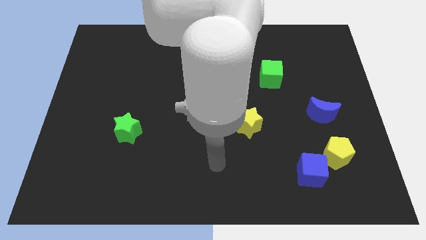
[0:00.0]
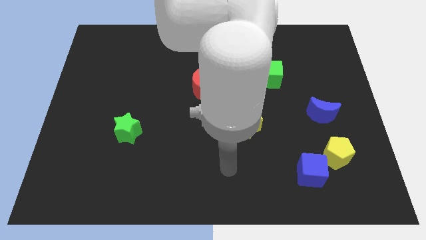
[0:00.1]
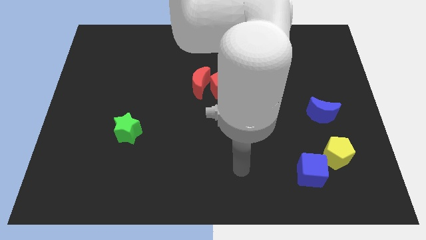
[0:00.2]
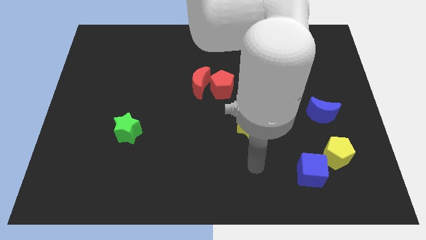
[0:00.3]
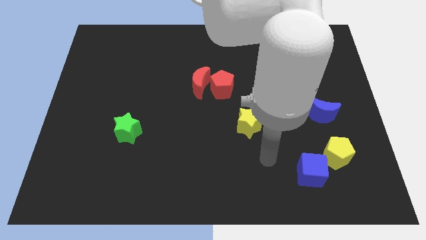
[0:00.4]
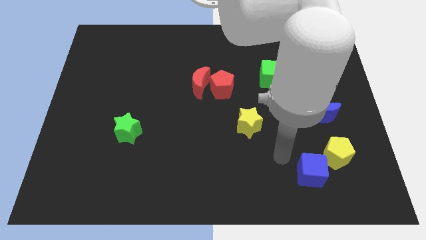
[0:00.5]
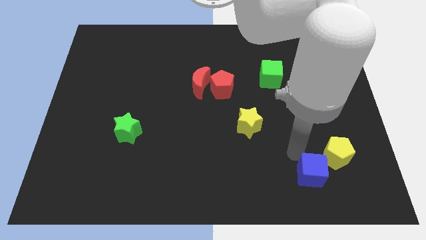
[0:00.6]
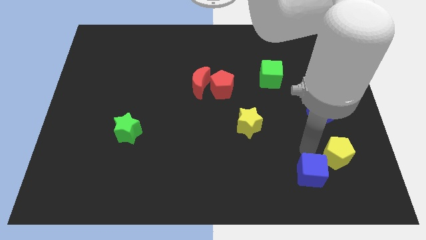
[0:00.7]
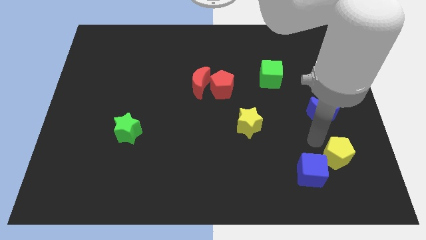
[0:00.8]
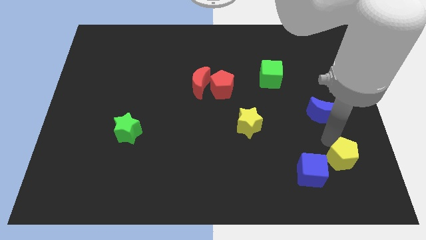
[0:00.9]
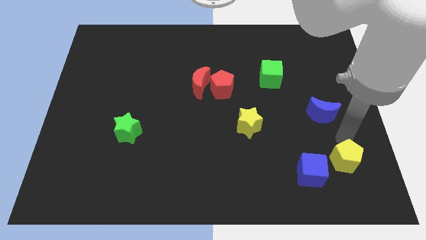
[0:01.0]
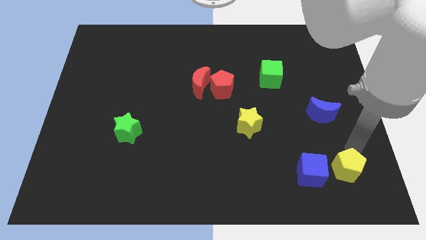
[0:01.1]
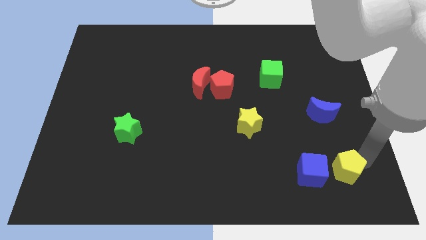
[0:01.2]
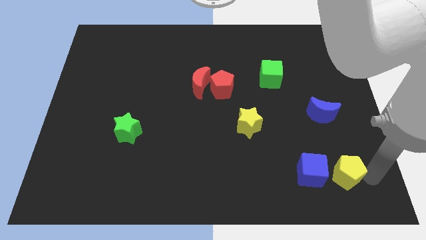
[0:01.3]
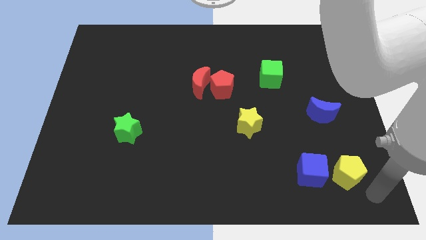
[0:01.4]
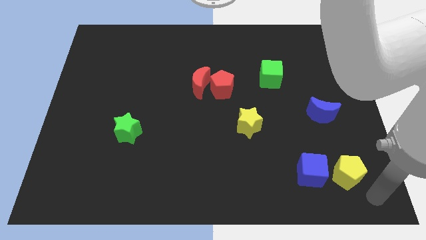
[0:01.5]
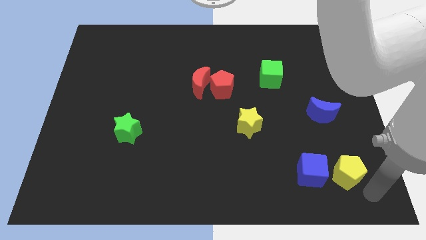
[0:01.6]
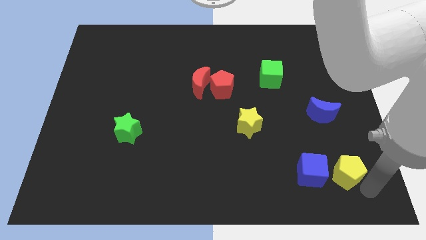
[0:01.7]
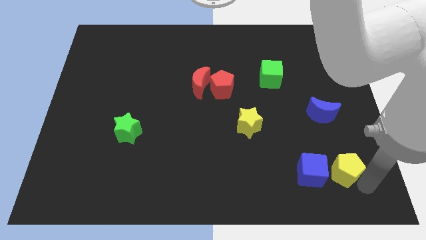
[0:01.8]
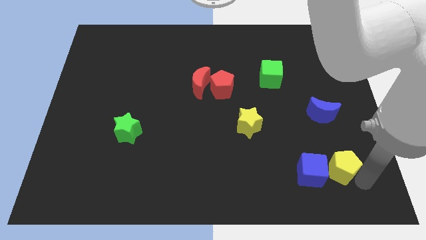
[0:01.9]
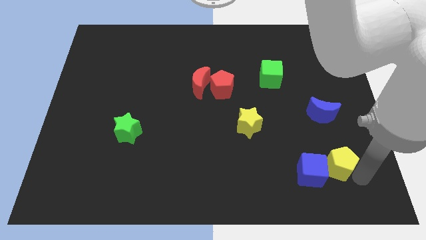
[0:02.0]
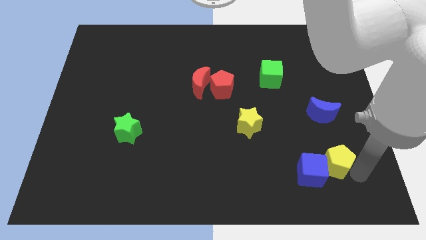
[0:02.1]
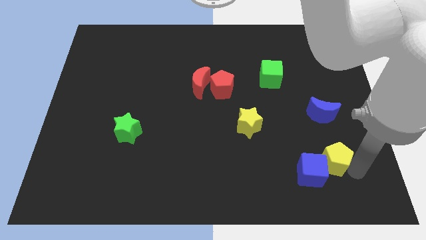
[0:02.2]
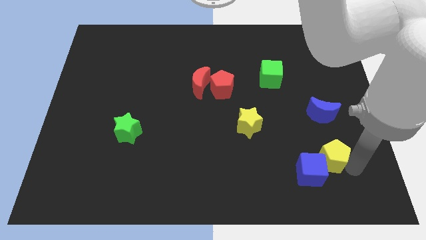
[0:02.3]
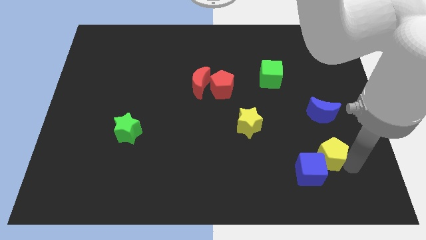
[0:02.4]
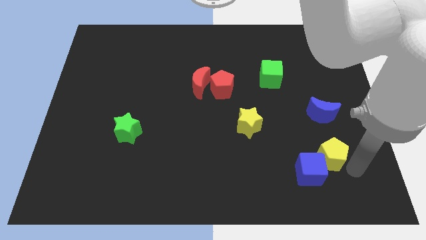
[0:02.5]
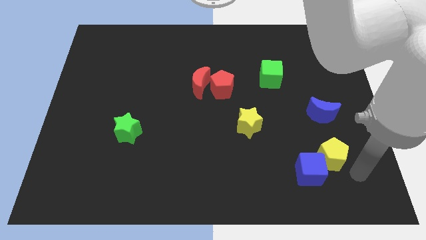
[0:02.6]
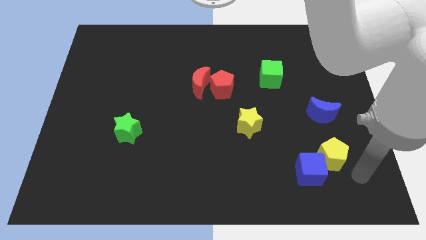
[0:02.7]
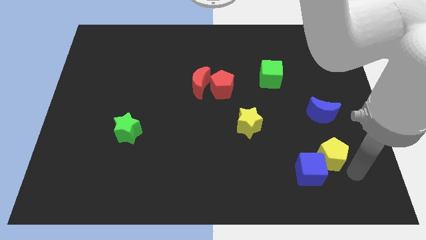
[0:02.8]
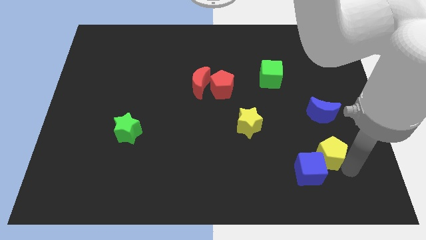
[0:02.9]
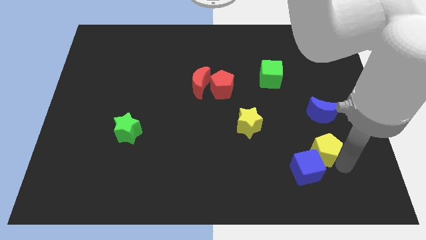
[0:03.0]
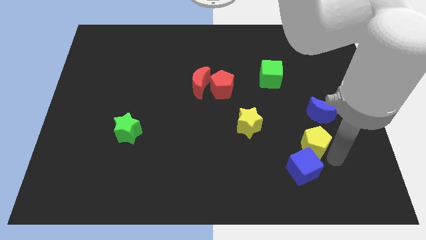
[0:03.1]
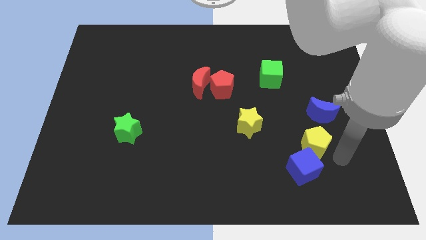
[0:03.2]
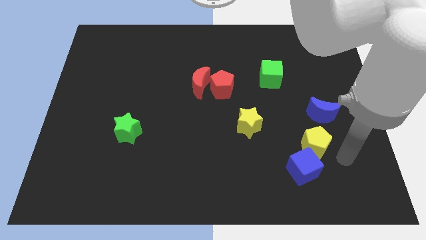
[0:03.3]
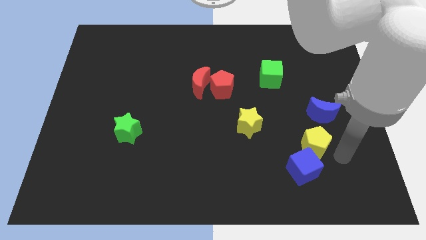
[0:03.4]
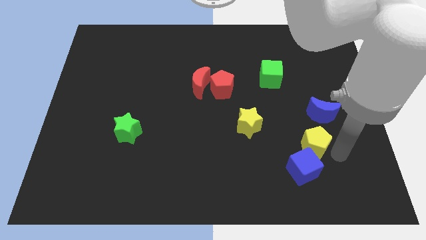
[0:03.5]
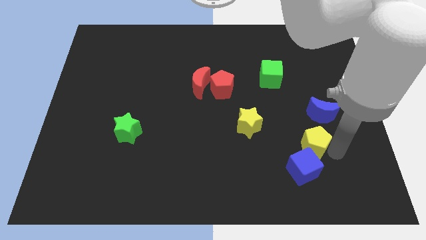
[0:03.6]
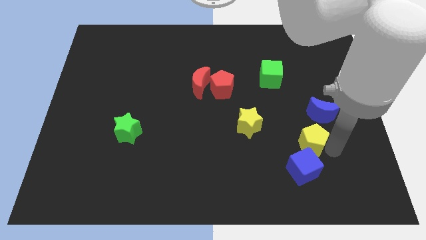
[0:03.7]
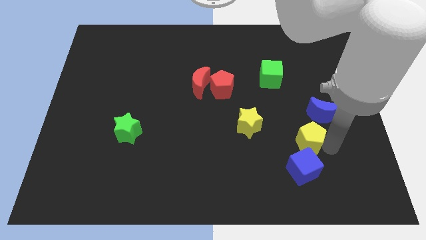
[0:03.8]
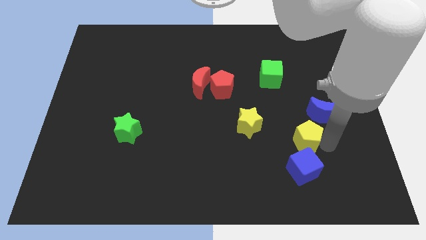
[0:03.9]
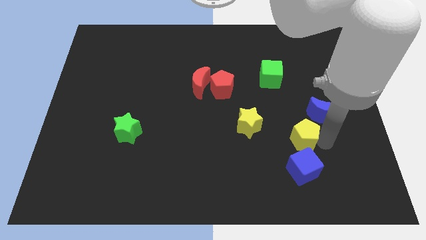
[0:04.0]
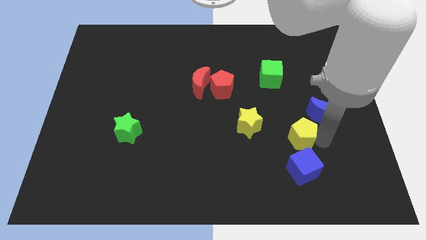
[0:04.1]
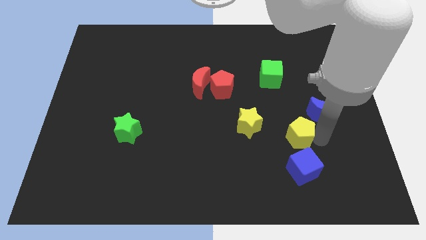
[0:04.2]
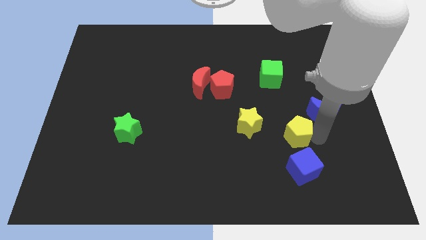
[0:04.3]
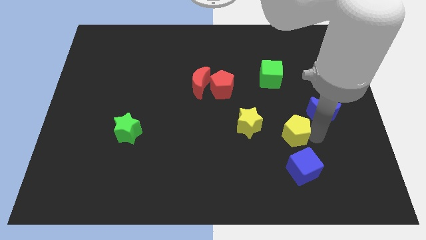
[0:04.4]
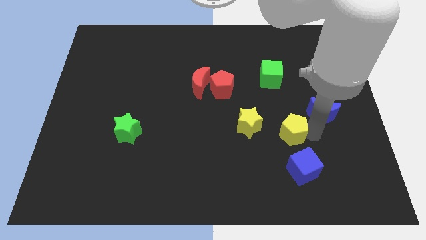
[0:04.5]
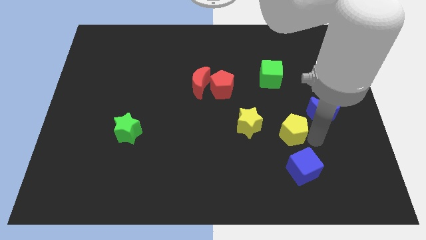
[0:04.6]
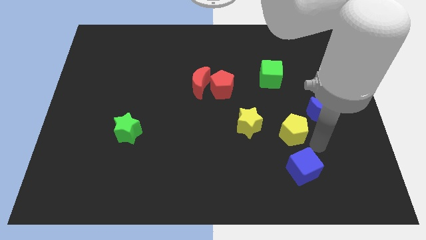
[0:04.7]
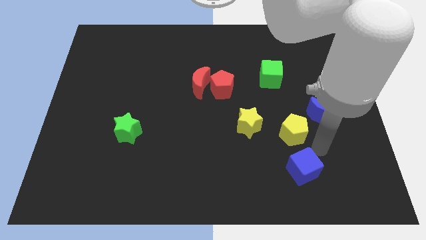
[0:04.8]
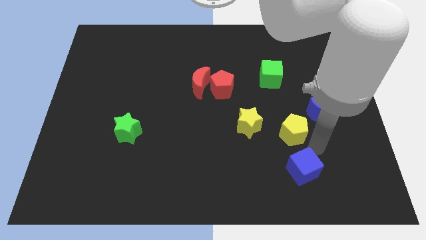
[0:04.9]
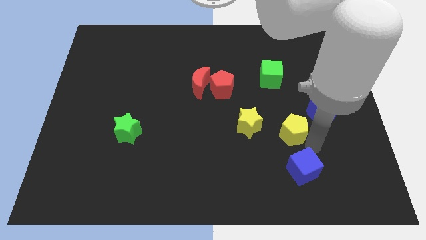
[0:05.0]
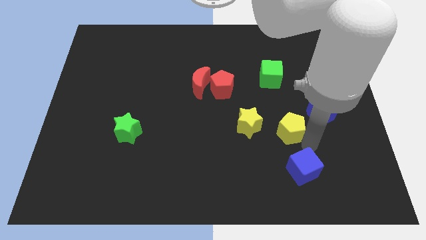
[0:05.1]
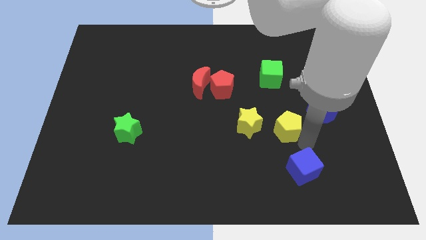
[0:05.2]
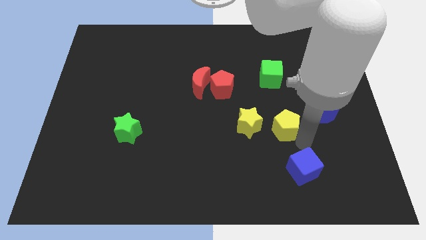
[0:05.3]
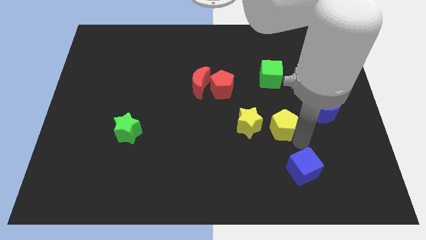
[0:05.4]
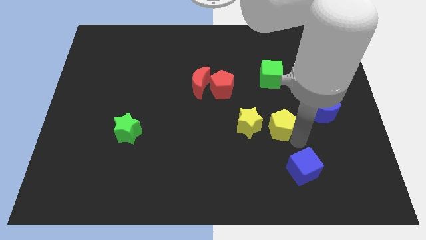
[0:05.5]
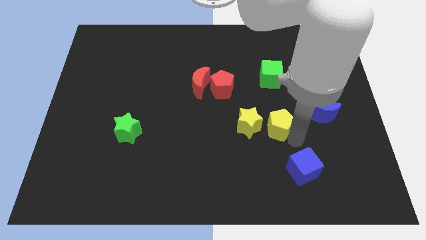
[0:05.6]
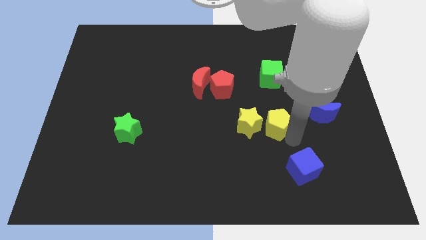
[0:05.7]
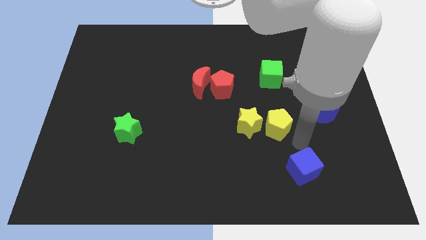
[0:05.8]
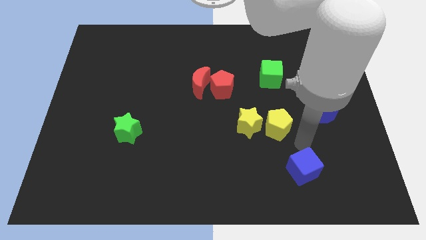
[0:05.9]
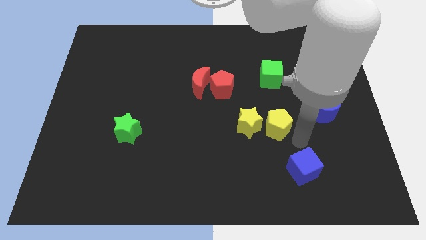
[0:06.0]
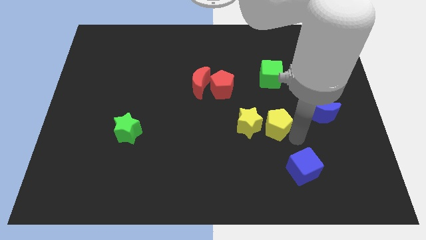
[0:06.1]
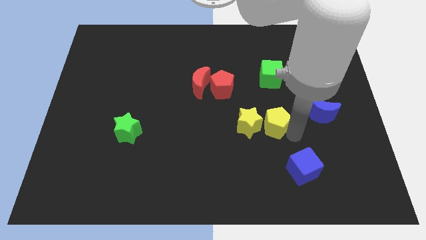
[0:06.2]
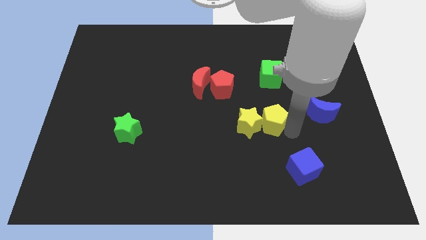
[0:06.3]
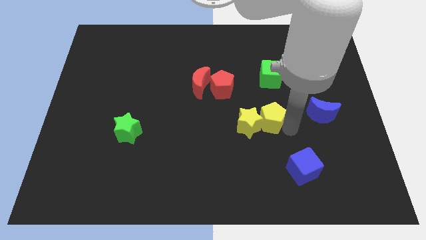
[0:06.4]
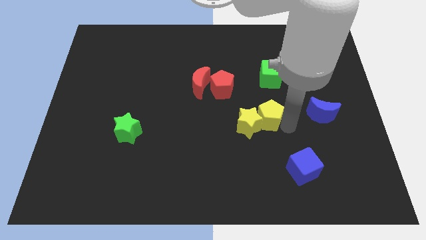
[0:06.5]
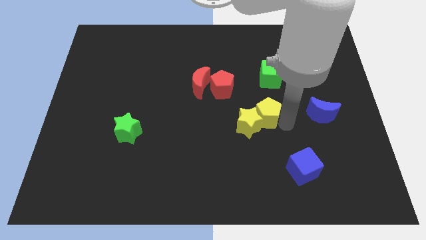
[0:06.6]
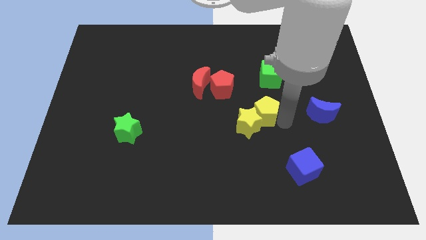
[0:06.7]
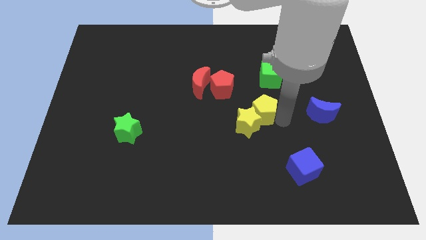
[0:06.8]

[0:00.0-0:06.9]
put the yellow pentagon to the middle of the board
